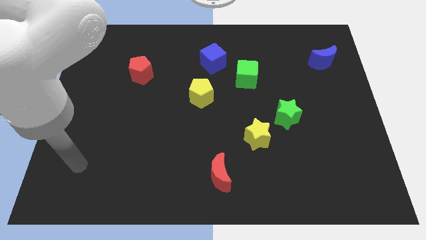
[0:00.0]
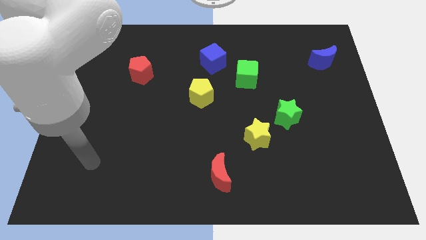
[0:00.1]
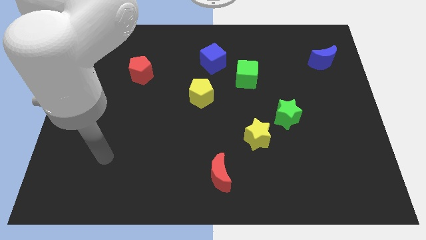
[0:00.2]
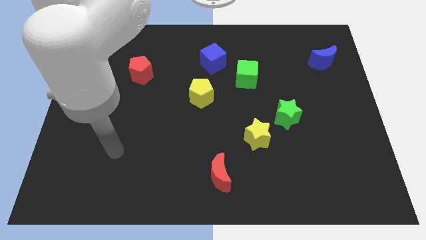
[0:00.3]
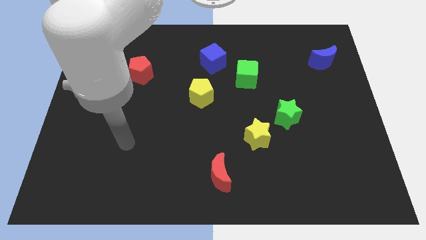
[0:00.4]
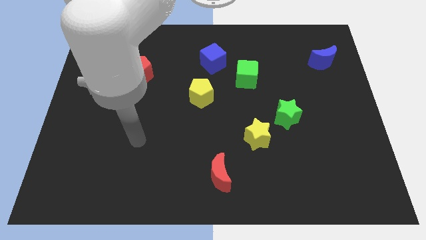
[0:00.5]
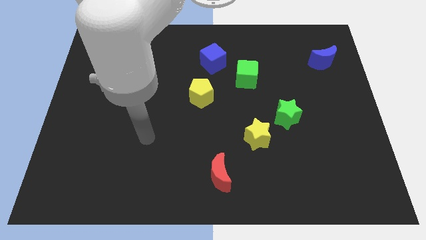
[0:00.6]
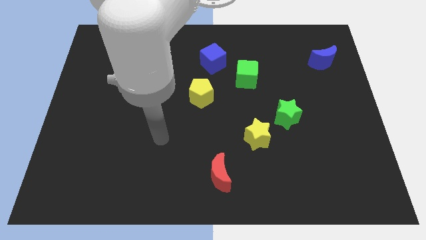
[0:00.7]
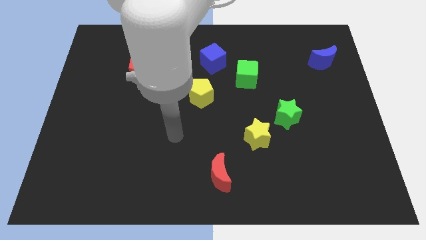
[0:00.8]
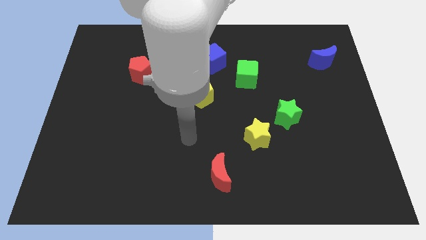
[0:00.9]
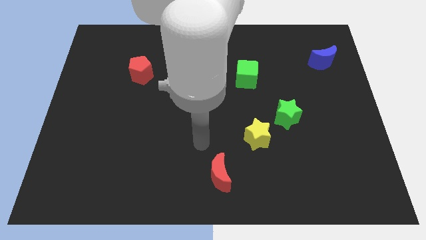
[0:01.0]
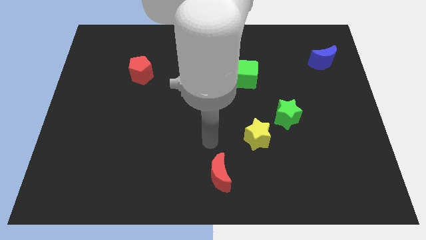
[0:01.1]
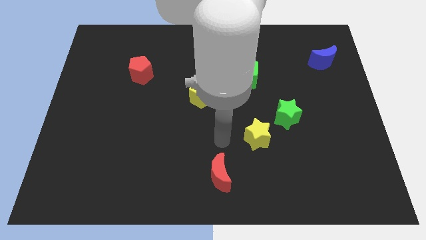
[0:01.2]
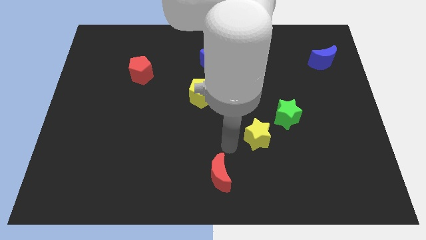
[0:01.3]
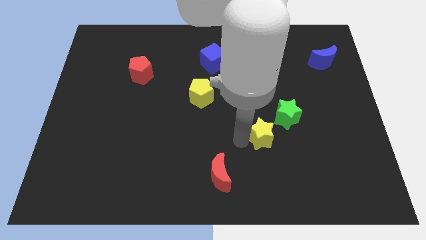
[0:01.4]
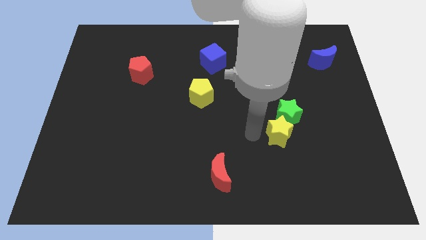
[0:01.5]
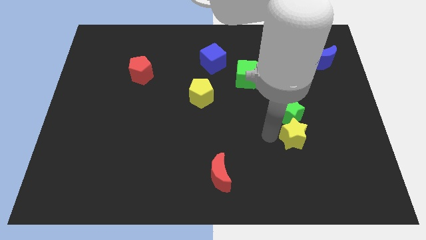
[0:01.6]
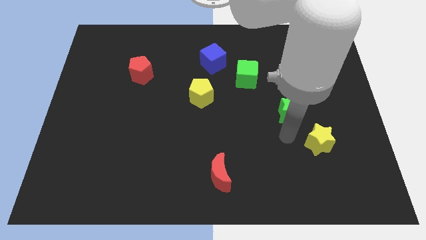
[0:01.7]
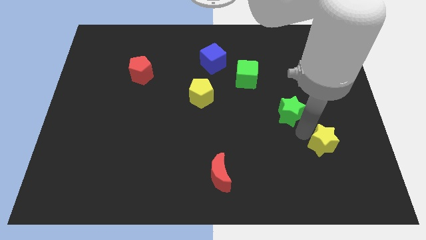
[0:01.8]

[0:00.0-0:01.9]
move the green star away from the yellow star

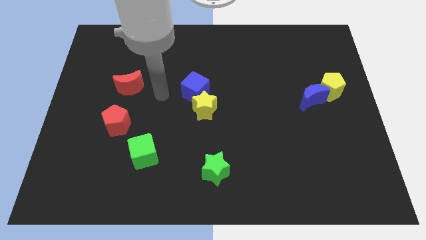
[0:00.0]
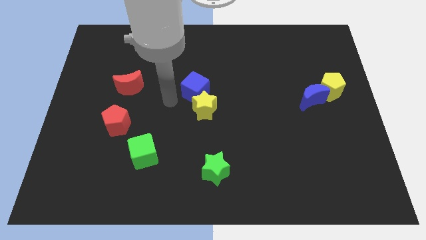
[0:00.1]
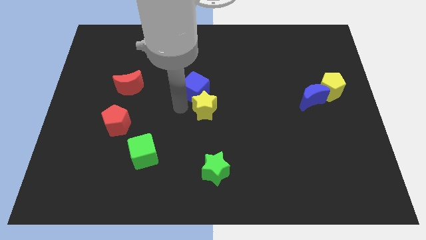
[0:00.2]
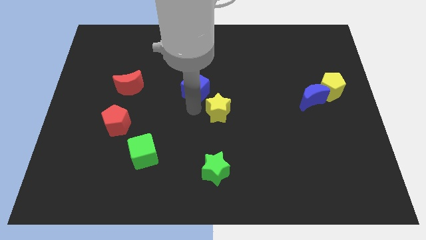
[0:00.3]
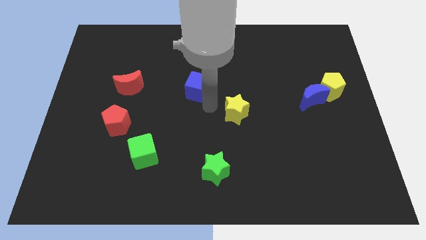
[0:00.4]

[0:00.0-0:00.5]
separate the blue cube from the yellow star

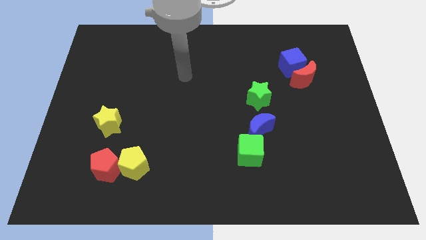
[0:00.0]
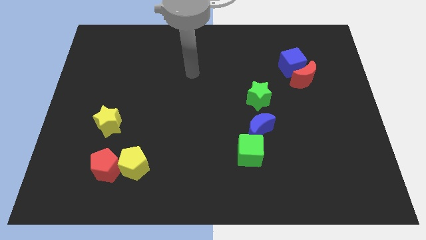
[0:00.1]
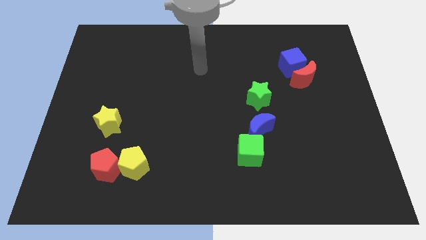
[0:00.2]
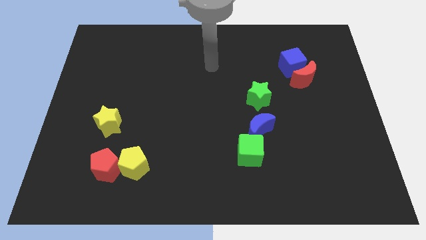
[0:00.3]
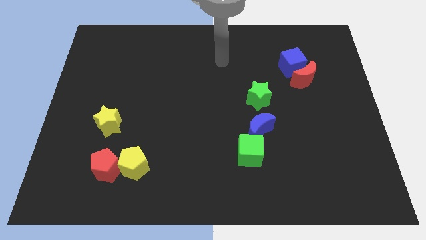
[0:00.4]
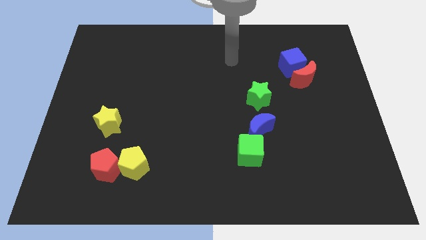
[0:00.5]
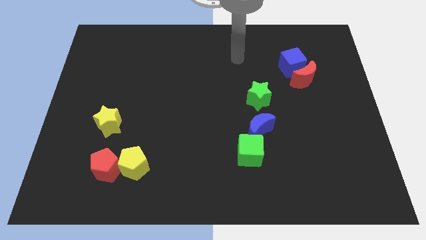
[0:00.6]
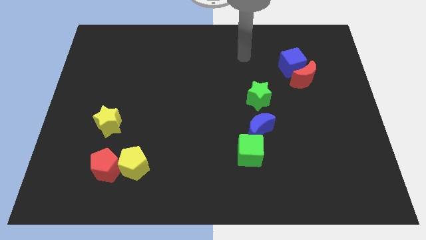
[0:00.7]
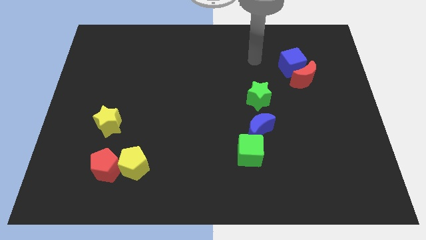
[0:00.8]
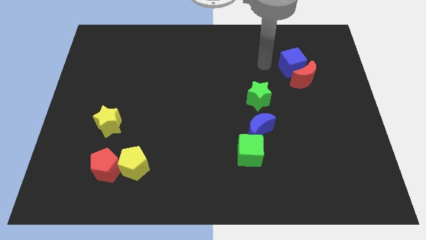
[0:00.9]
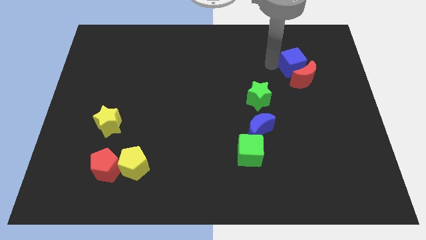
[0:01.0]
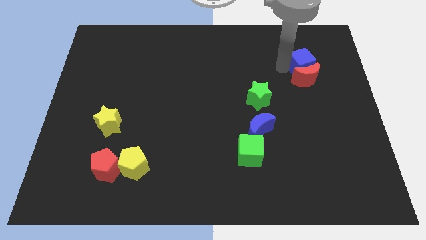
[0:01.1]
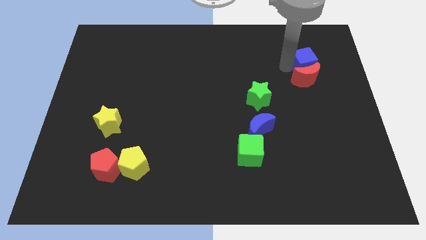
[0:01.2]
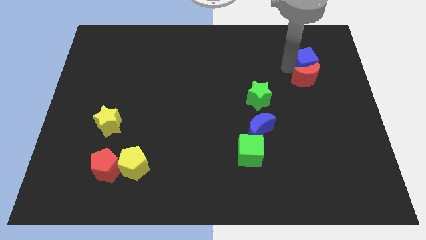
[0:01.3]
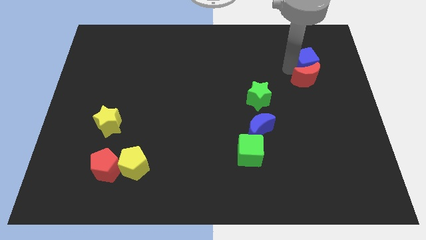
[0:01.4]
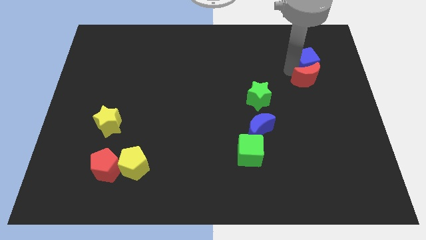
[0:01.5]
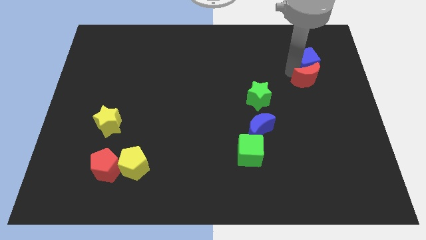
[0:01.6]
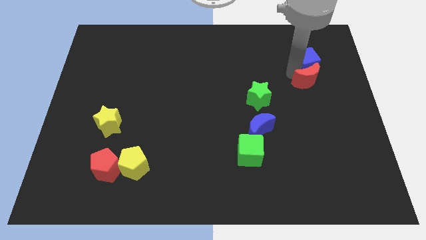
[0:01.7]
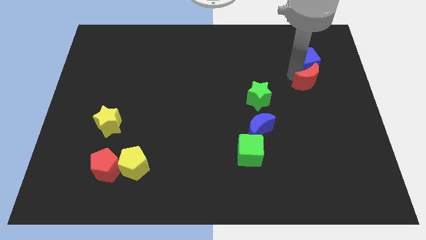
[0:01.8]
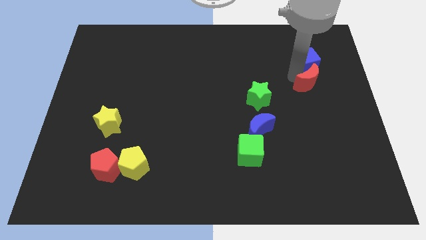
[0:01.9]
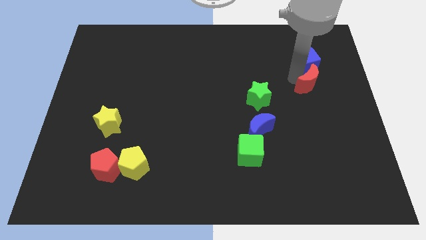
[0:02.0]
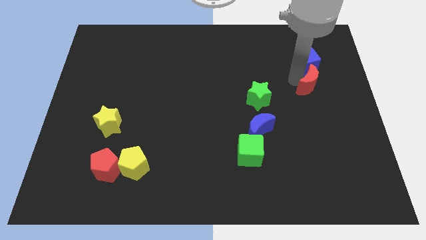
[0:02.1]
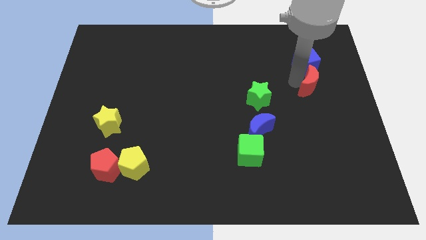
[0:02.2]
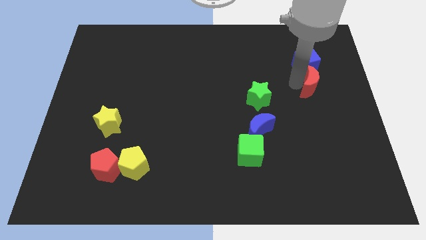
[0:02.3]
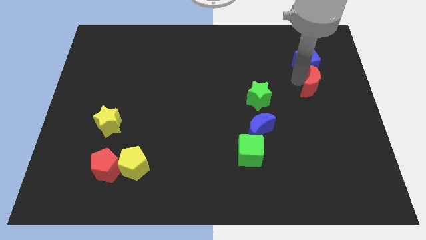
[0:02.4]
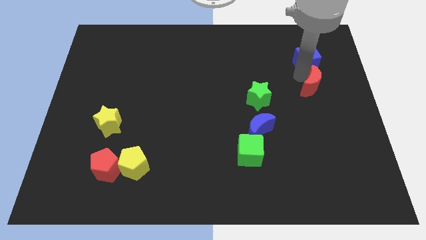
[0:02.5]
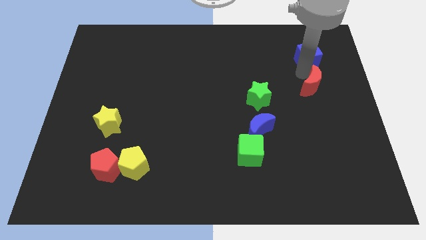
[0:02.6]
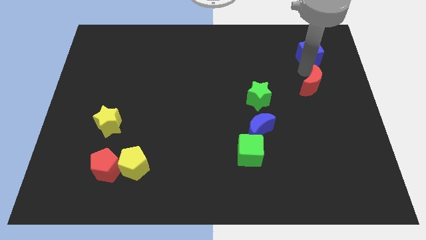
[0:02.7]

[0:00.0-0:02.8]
pull the red moon apart from the blue cube

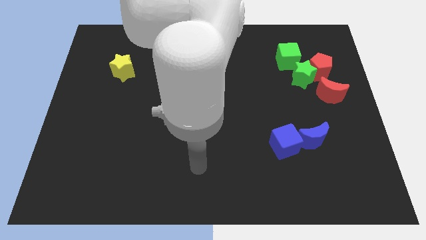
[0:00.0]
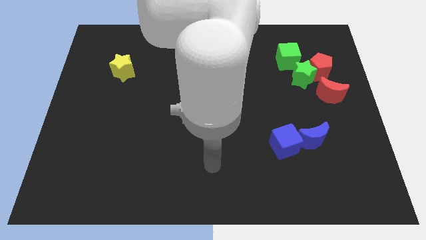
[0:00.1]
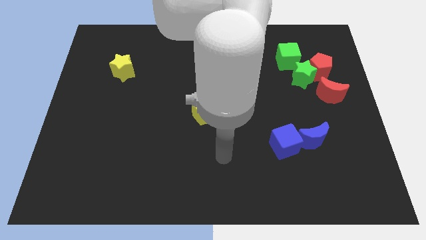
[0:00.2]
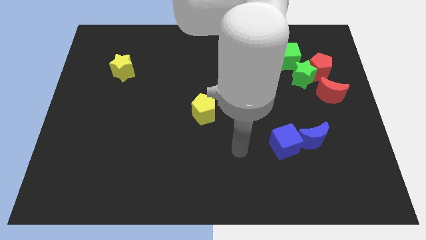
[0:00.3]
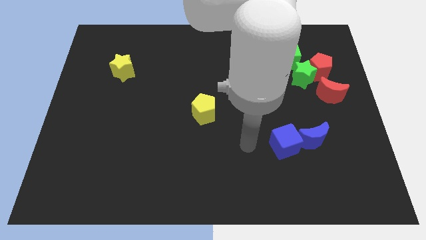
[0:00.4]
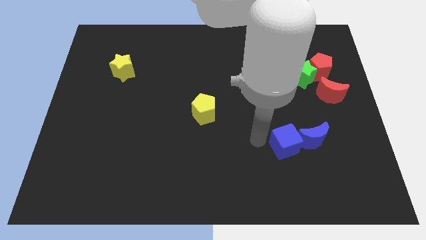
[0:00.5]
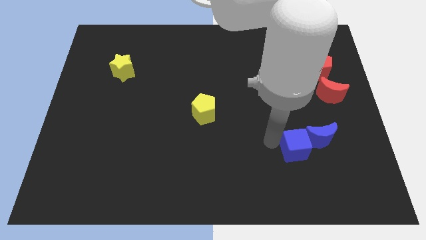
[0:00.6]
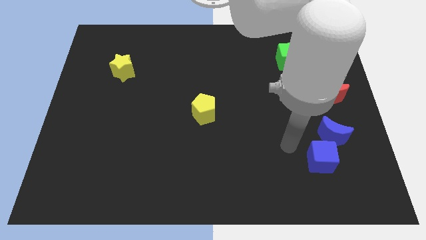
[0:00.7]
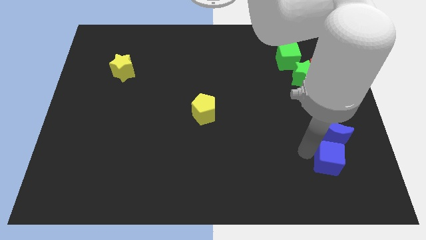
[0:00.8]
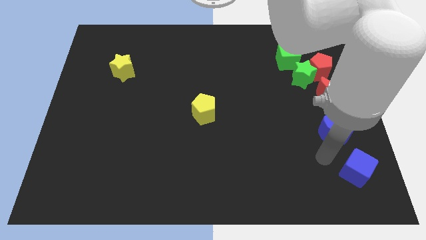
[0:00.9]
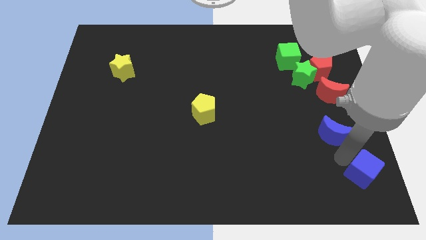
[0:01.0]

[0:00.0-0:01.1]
separate the blue moon from the blue cube

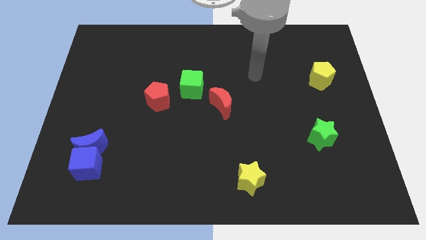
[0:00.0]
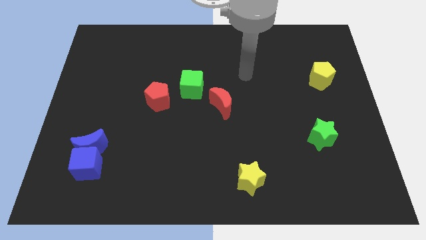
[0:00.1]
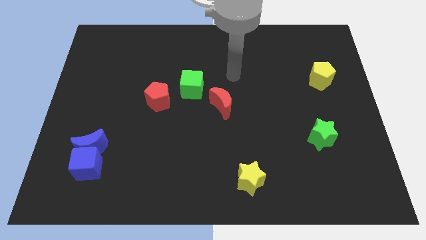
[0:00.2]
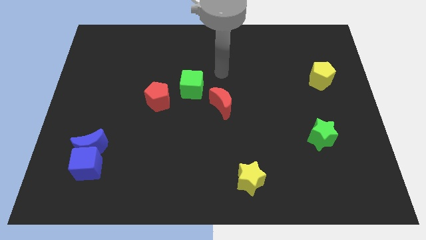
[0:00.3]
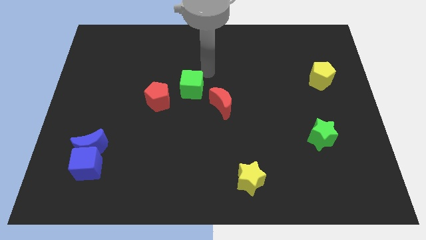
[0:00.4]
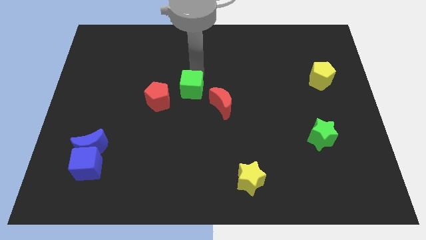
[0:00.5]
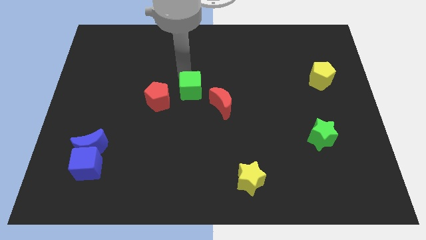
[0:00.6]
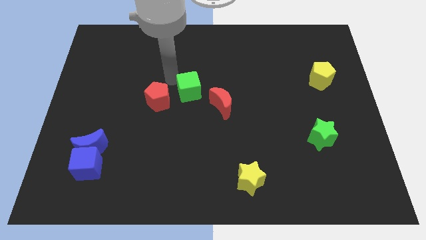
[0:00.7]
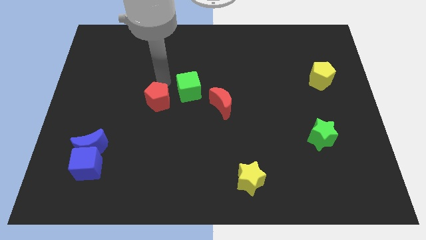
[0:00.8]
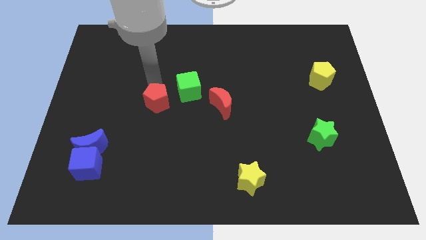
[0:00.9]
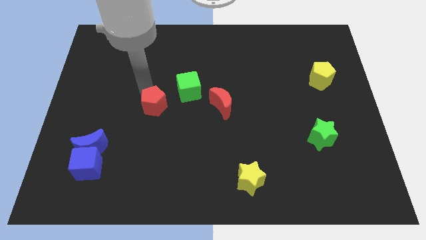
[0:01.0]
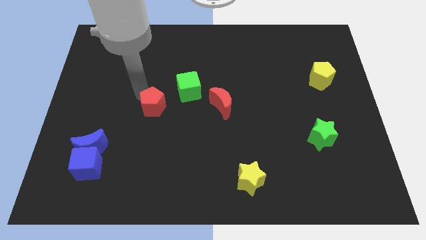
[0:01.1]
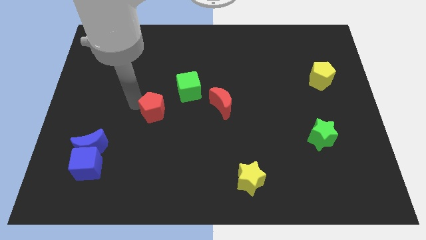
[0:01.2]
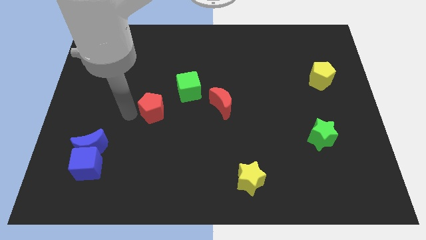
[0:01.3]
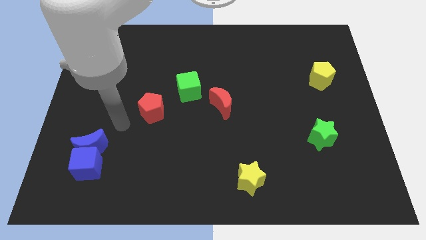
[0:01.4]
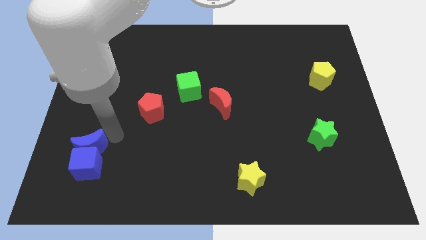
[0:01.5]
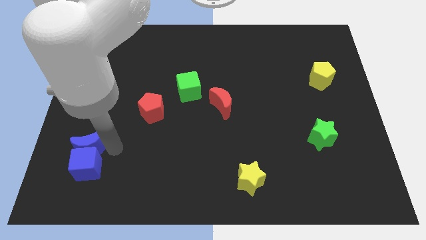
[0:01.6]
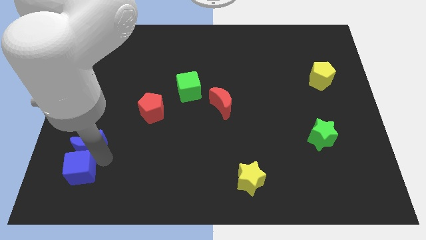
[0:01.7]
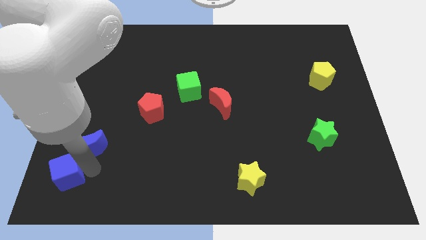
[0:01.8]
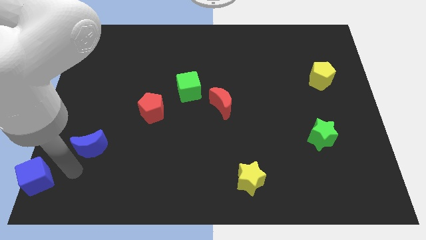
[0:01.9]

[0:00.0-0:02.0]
pull the blue moon apart from the blue cube

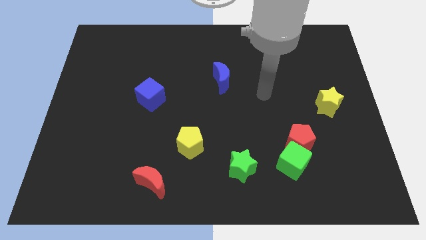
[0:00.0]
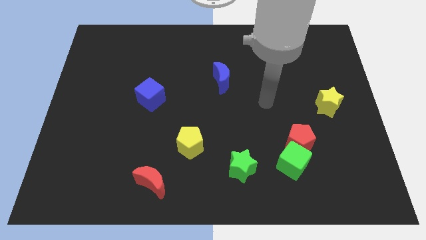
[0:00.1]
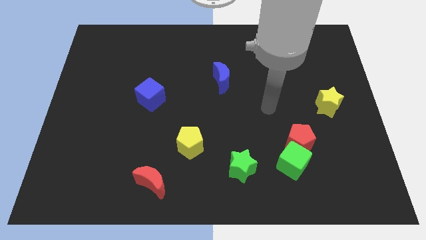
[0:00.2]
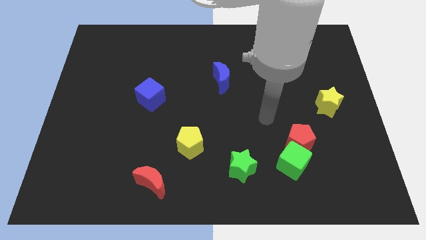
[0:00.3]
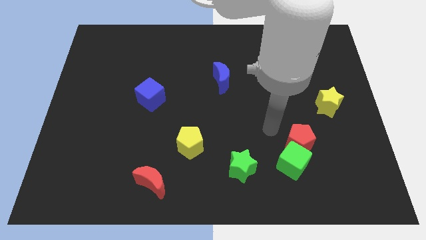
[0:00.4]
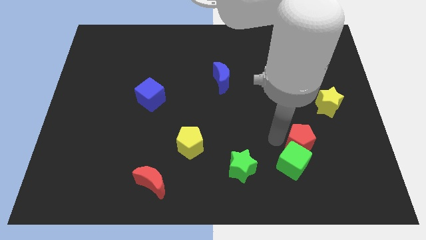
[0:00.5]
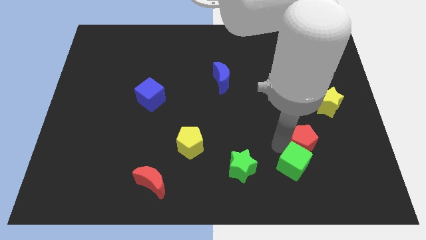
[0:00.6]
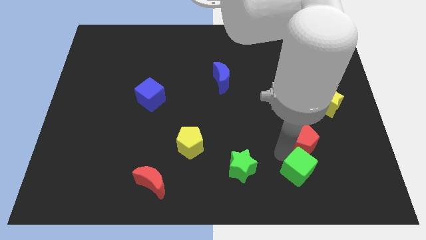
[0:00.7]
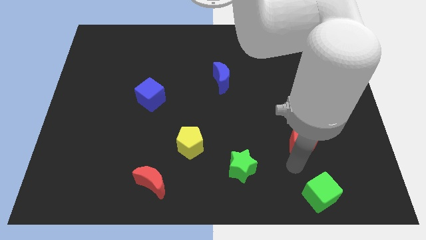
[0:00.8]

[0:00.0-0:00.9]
move the red pentagon away from the green cube
